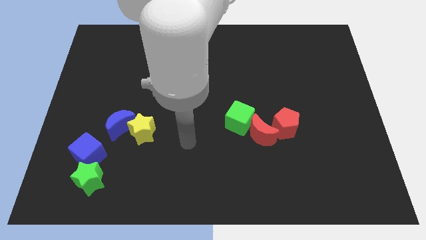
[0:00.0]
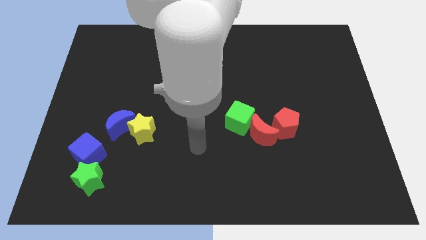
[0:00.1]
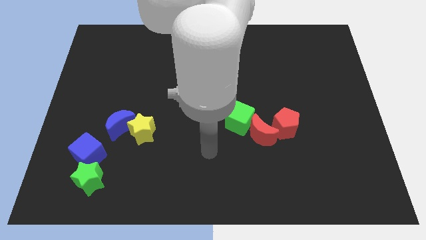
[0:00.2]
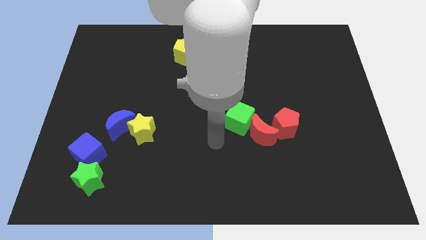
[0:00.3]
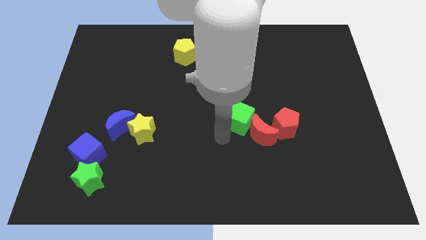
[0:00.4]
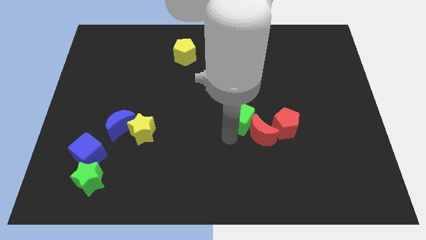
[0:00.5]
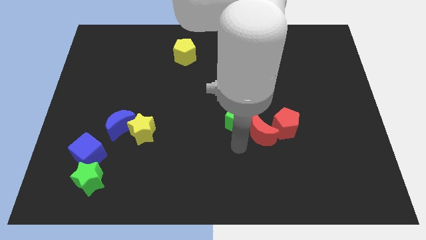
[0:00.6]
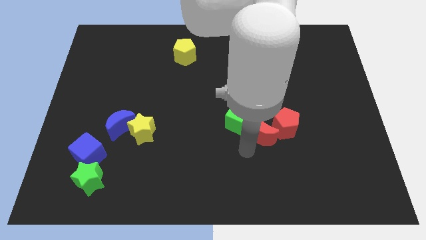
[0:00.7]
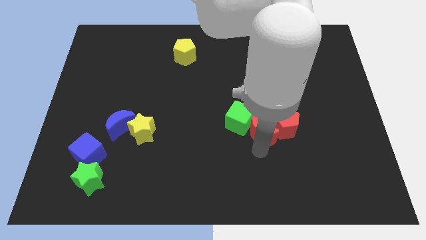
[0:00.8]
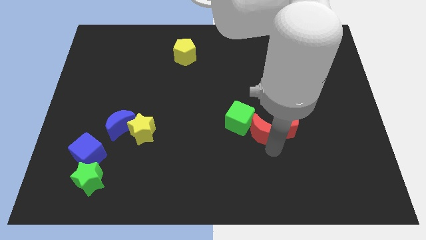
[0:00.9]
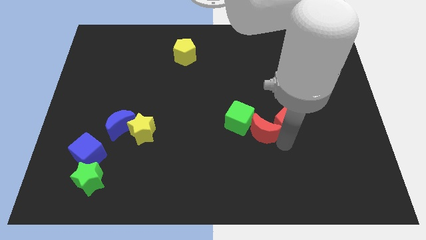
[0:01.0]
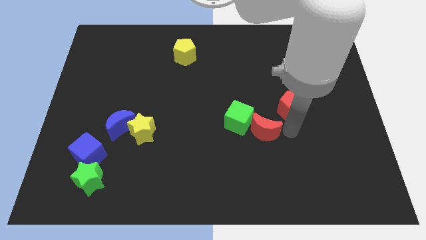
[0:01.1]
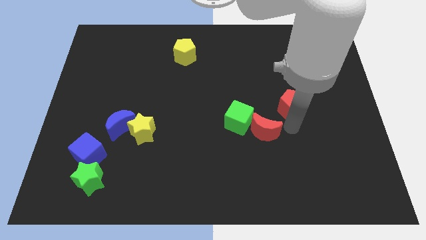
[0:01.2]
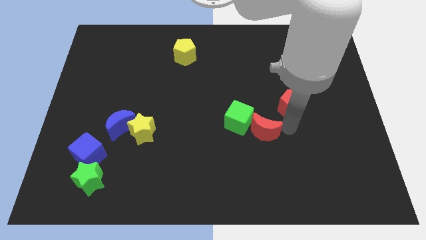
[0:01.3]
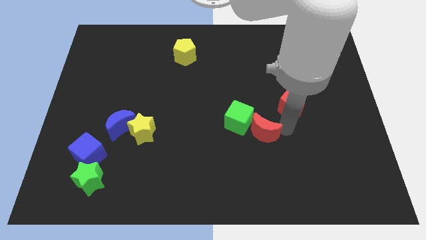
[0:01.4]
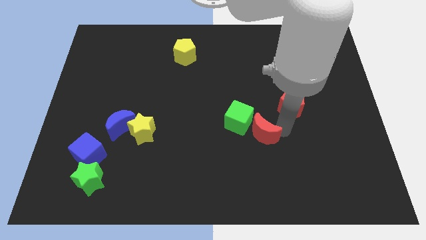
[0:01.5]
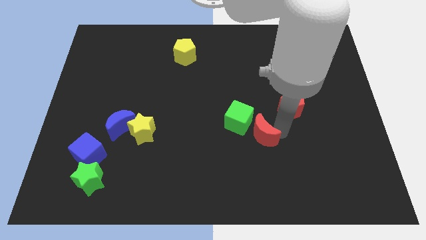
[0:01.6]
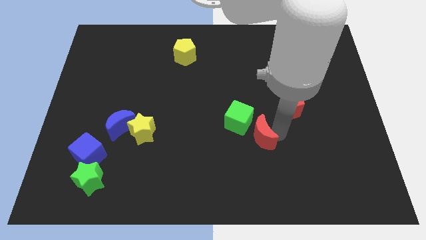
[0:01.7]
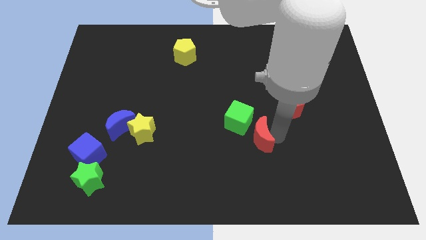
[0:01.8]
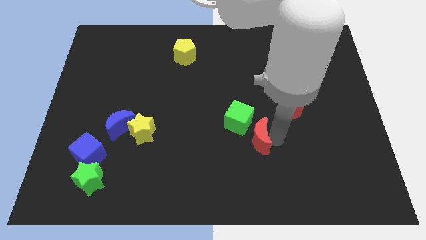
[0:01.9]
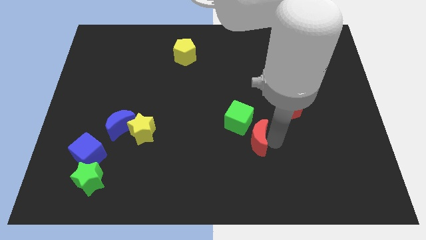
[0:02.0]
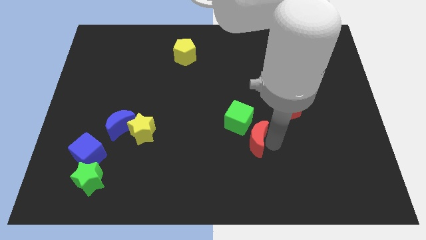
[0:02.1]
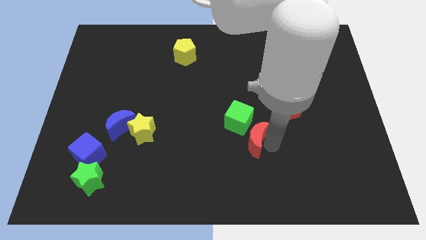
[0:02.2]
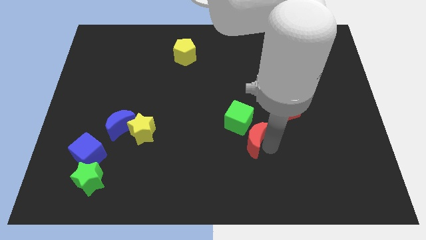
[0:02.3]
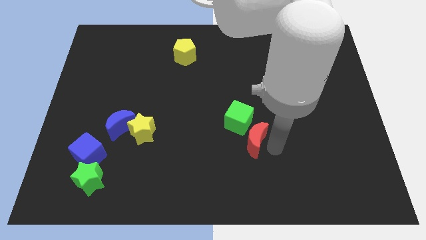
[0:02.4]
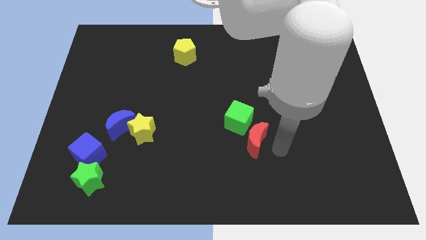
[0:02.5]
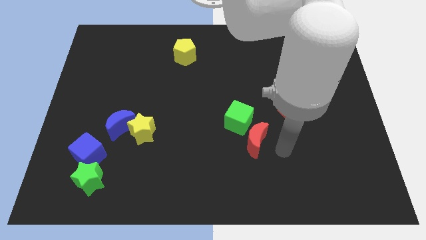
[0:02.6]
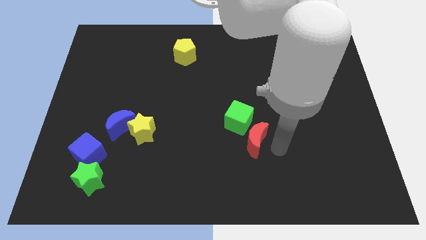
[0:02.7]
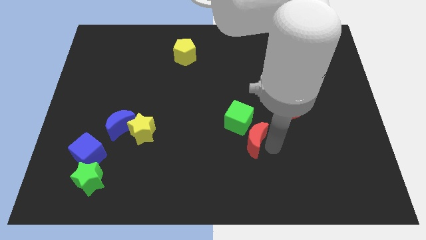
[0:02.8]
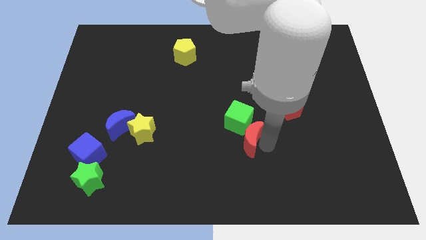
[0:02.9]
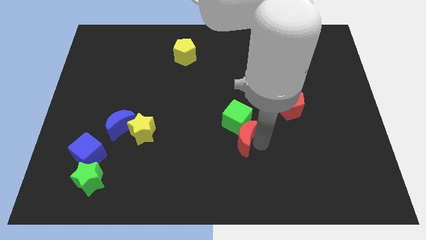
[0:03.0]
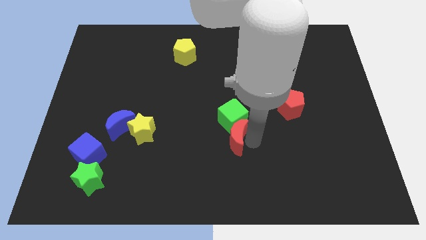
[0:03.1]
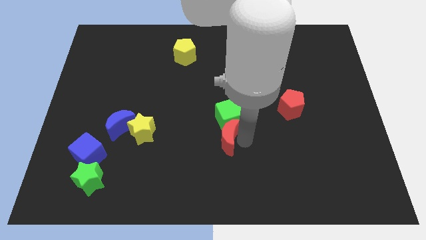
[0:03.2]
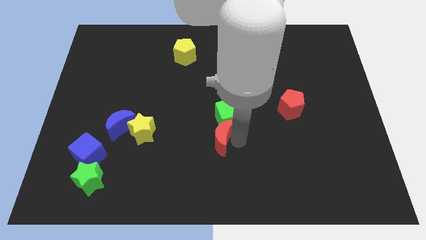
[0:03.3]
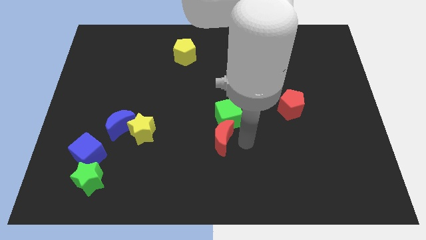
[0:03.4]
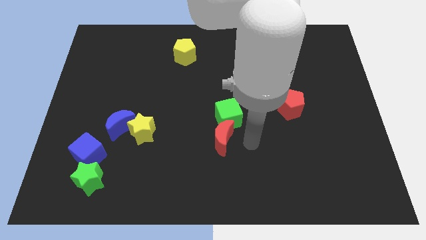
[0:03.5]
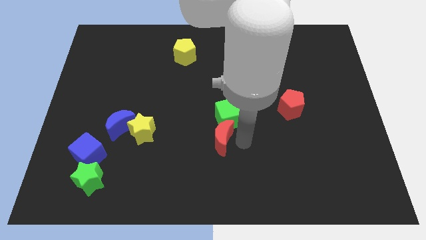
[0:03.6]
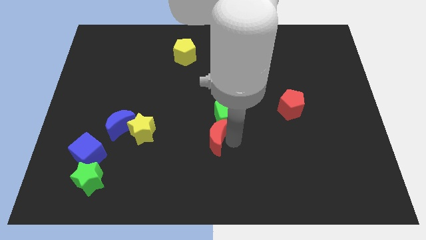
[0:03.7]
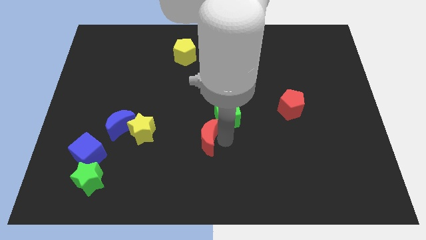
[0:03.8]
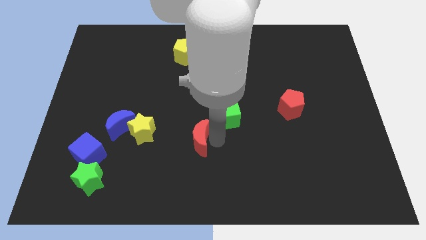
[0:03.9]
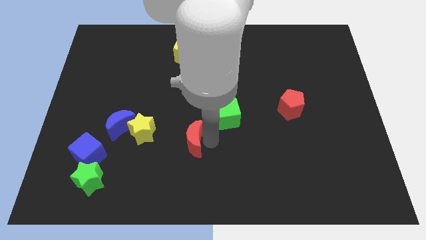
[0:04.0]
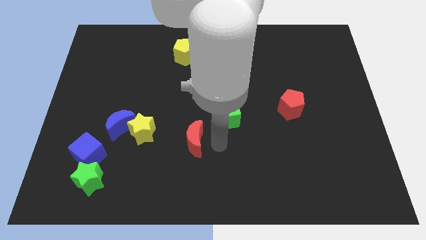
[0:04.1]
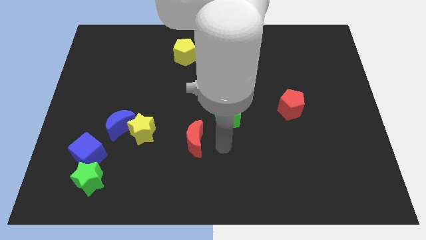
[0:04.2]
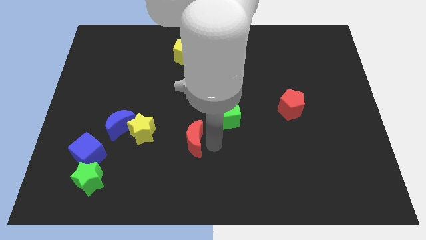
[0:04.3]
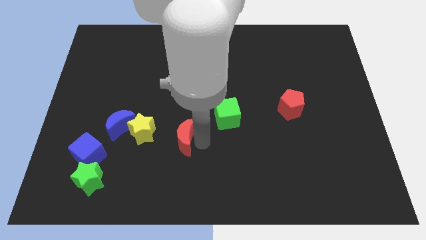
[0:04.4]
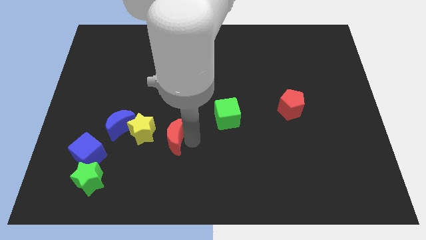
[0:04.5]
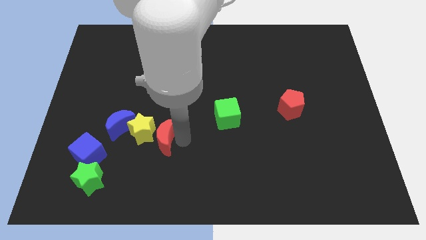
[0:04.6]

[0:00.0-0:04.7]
move the red moon next to the yellow star

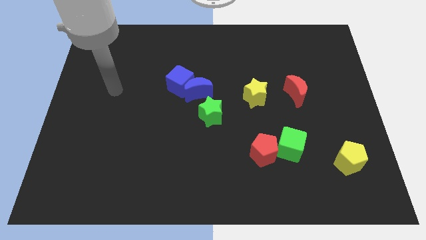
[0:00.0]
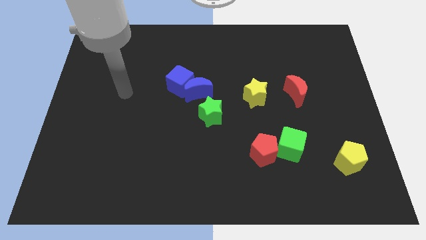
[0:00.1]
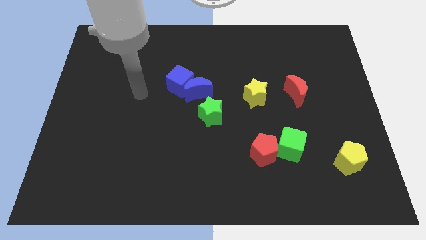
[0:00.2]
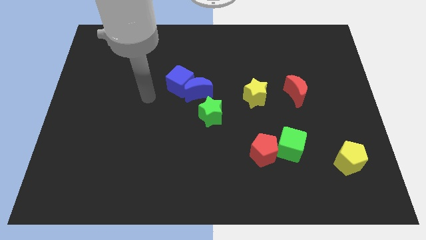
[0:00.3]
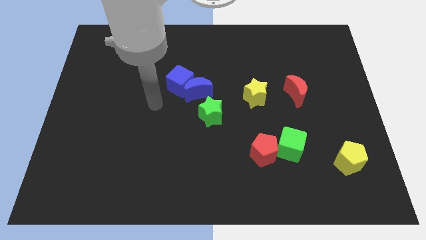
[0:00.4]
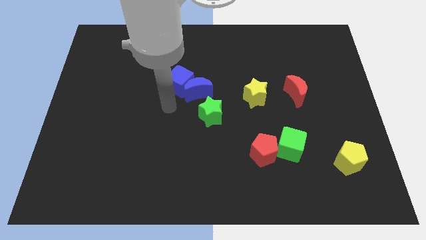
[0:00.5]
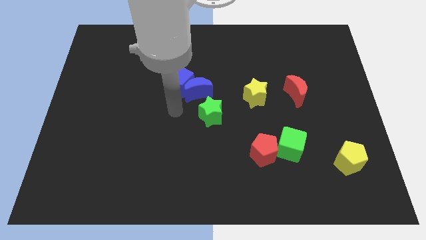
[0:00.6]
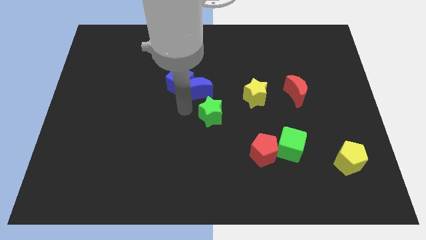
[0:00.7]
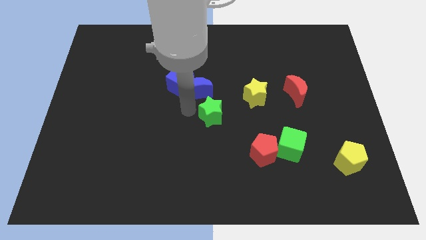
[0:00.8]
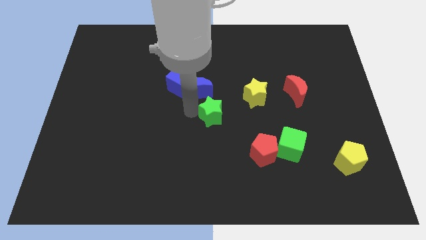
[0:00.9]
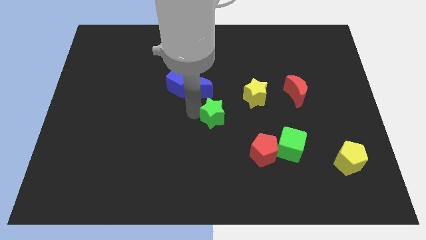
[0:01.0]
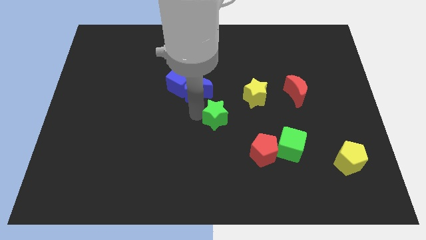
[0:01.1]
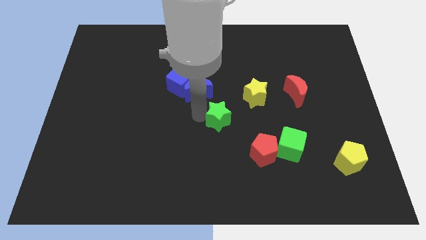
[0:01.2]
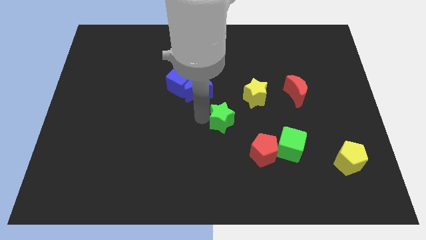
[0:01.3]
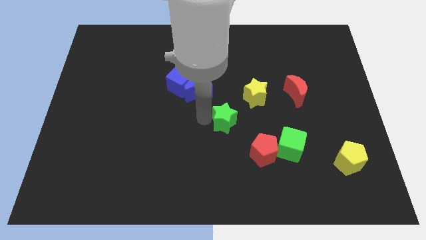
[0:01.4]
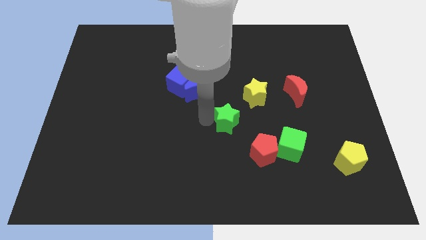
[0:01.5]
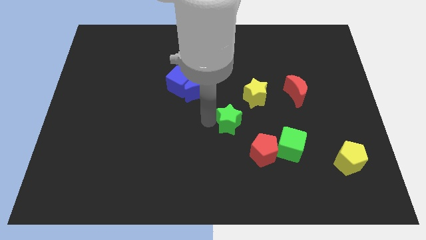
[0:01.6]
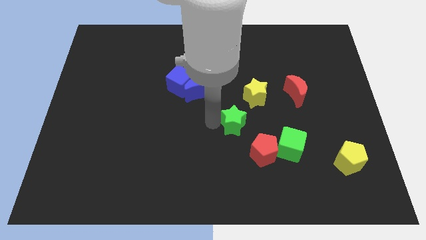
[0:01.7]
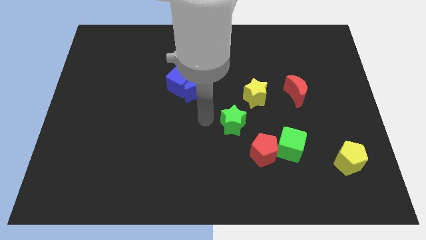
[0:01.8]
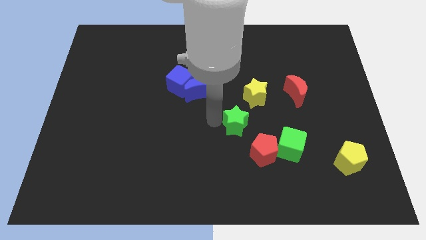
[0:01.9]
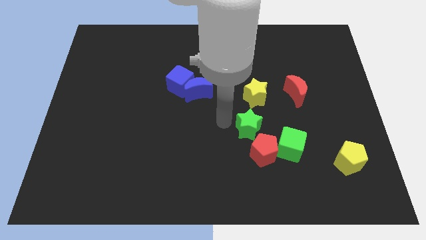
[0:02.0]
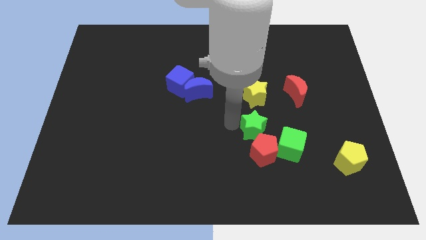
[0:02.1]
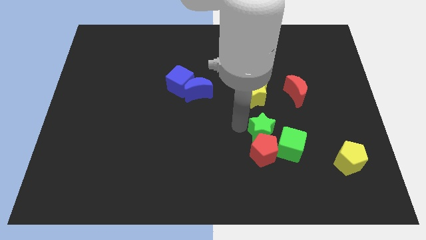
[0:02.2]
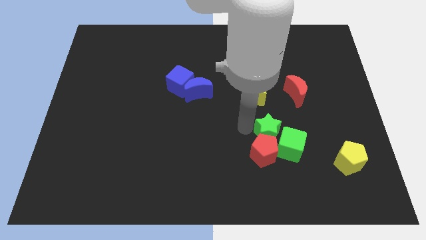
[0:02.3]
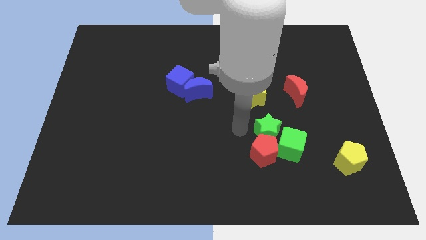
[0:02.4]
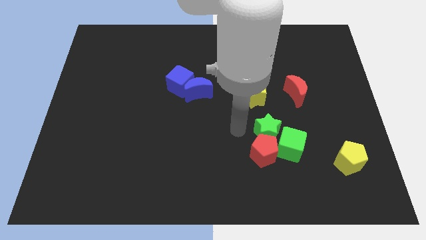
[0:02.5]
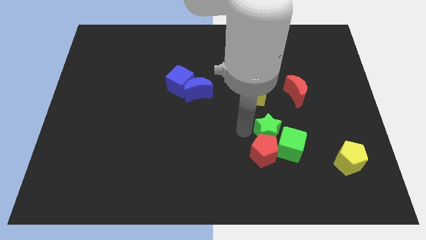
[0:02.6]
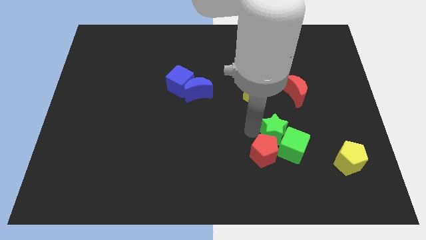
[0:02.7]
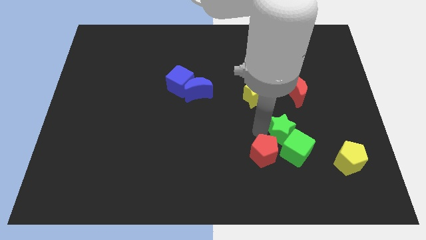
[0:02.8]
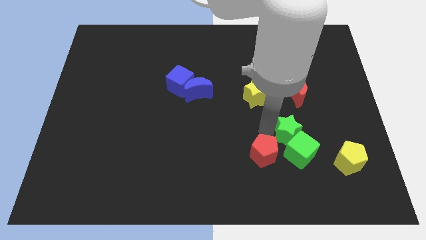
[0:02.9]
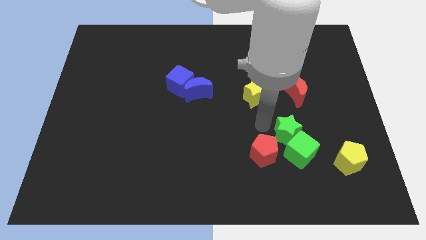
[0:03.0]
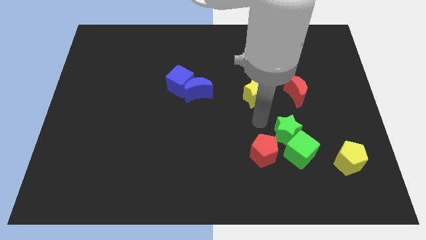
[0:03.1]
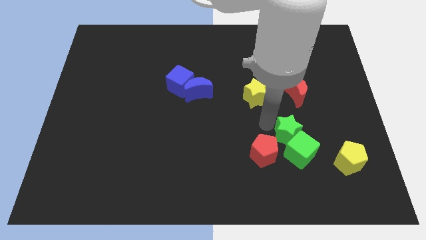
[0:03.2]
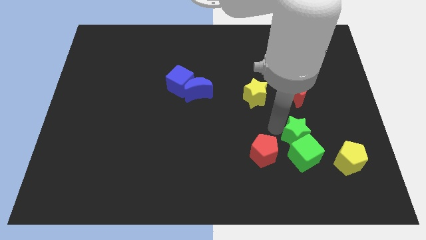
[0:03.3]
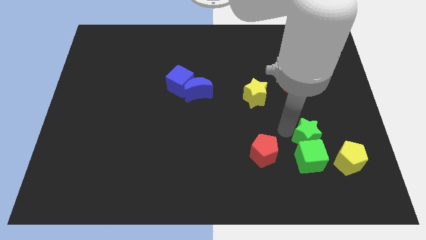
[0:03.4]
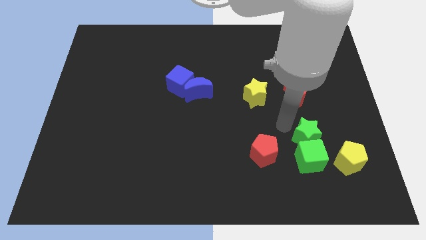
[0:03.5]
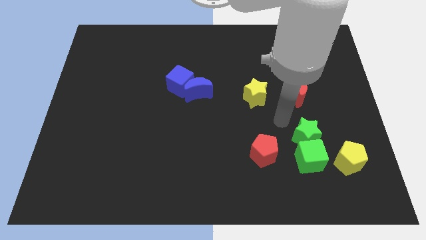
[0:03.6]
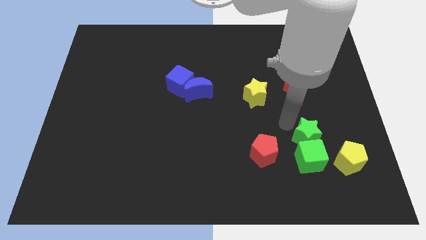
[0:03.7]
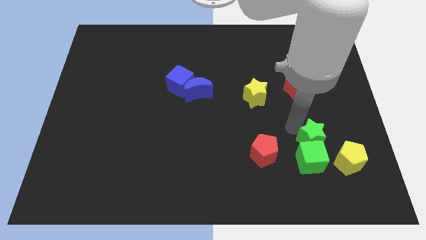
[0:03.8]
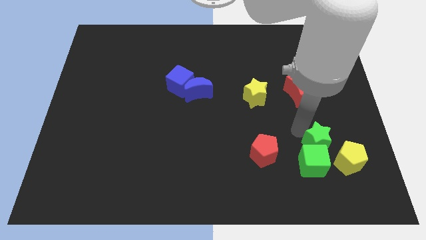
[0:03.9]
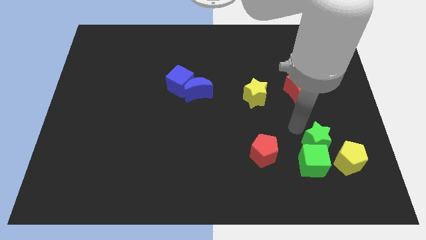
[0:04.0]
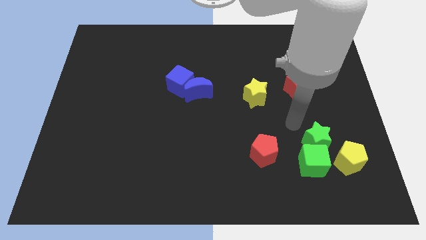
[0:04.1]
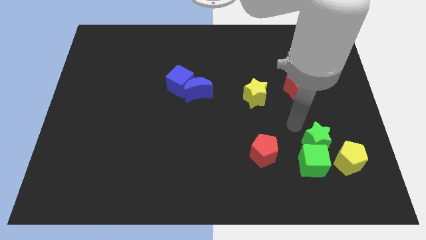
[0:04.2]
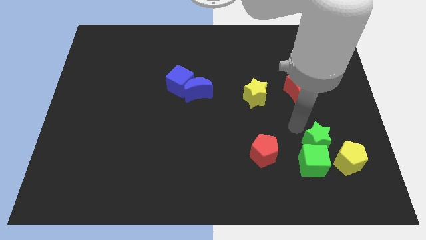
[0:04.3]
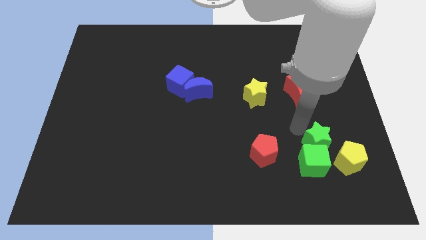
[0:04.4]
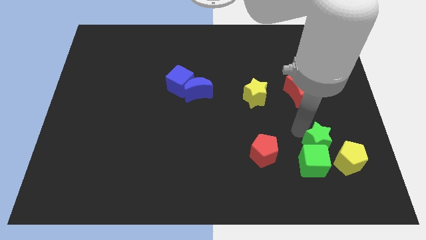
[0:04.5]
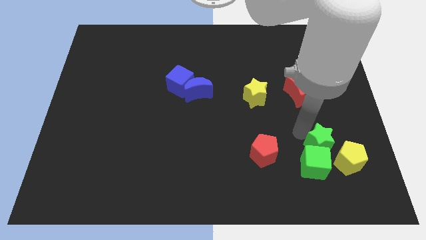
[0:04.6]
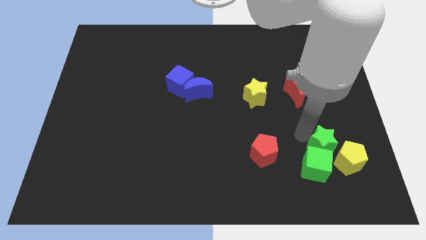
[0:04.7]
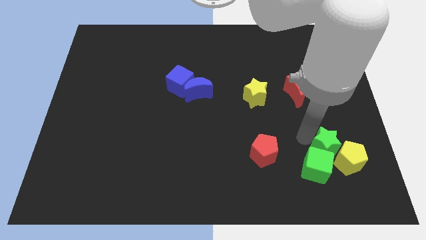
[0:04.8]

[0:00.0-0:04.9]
put the green star next to the yellow pentagon
